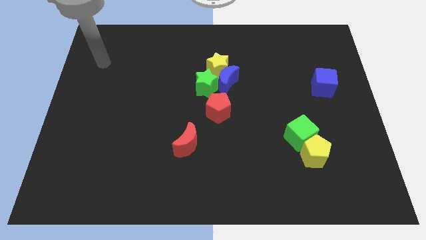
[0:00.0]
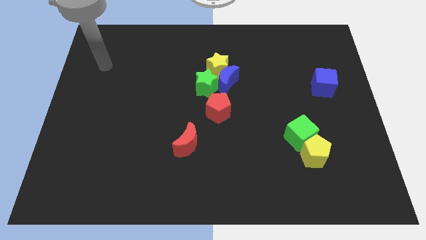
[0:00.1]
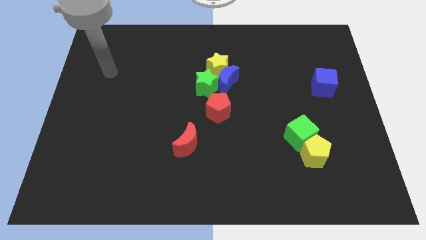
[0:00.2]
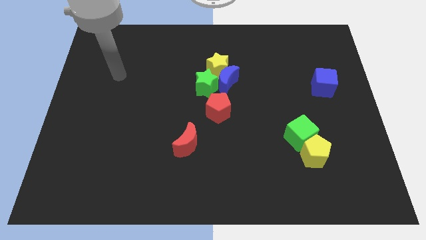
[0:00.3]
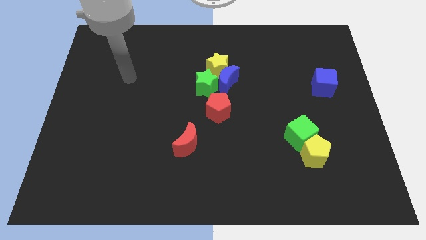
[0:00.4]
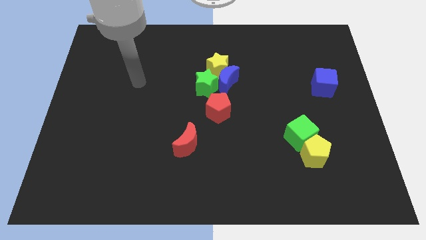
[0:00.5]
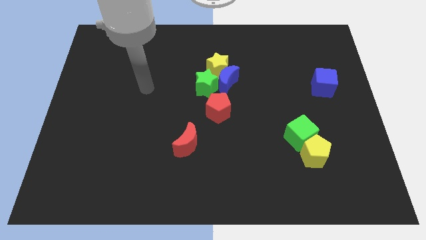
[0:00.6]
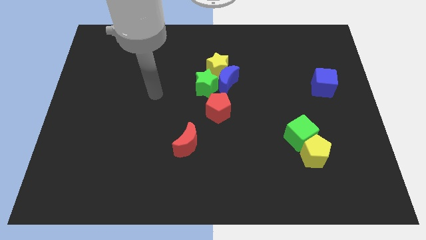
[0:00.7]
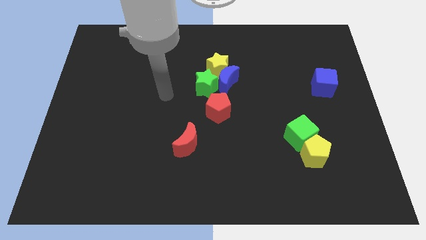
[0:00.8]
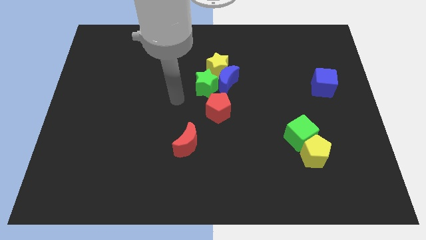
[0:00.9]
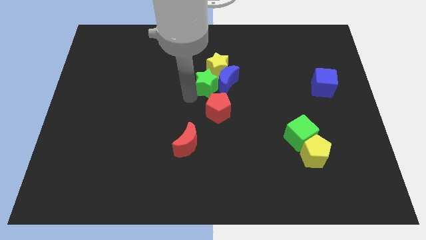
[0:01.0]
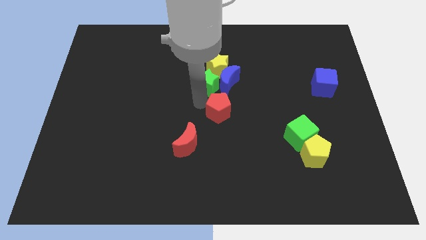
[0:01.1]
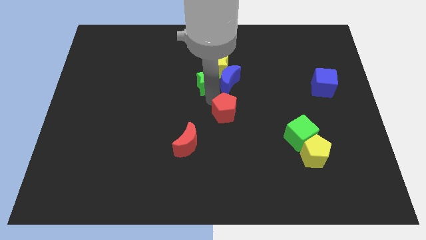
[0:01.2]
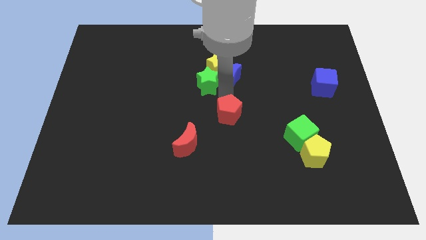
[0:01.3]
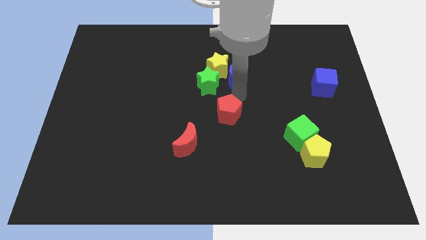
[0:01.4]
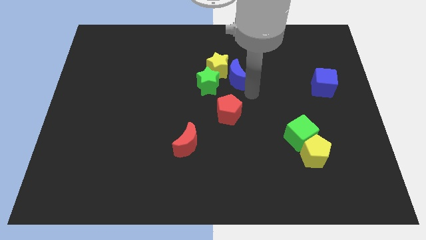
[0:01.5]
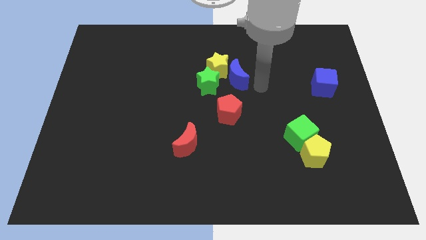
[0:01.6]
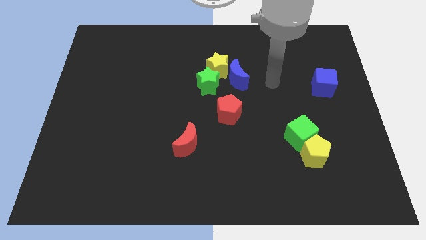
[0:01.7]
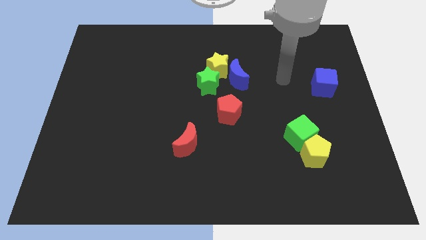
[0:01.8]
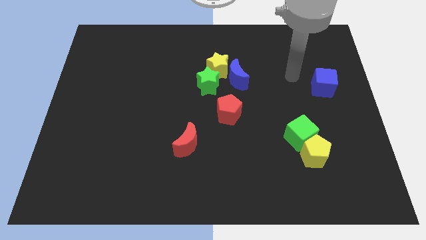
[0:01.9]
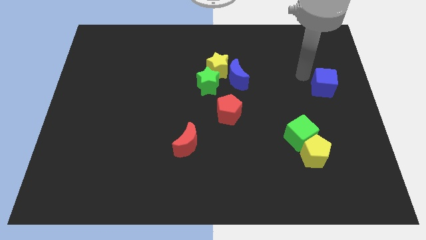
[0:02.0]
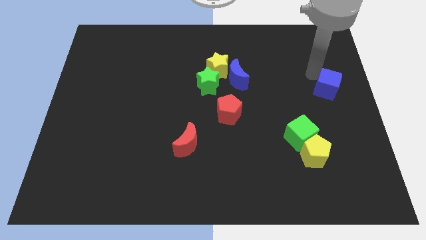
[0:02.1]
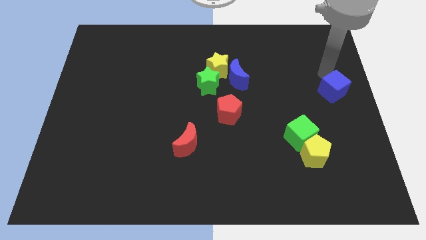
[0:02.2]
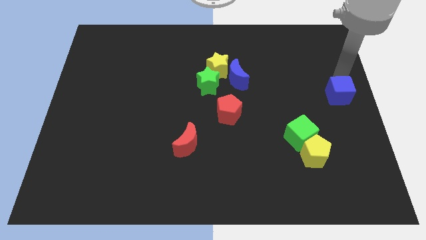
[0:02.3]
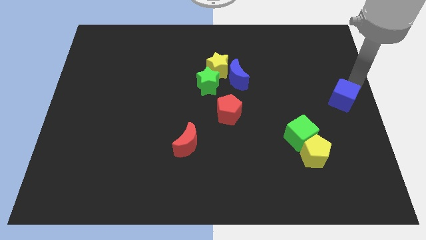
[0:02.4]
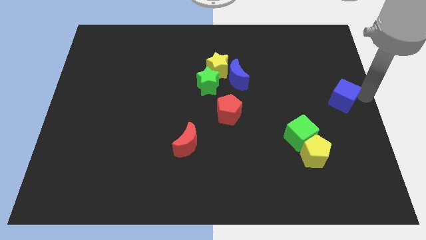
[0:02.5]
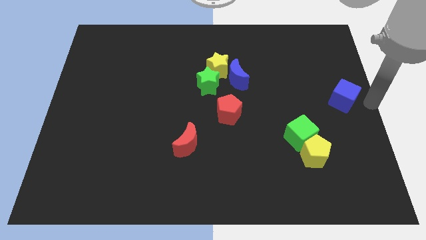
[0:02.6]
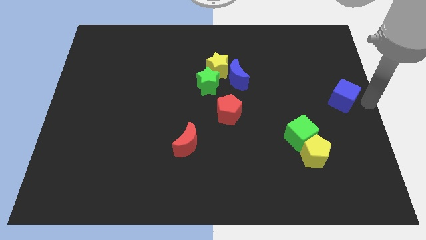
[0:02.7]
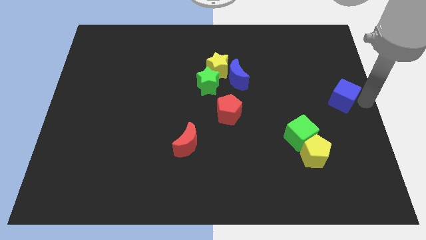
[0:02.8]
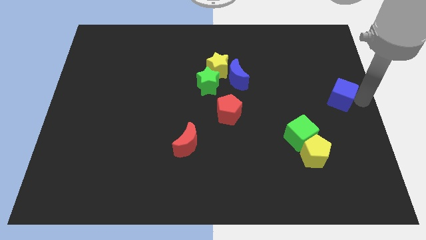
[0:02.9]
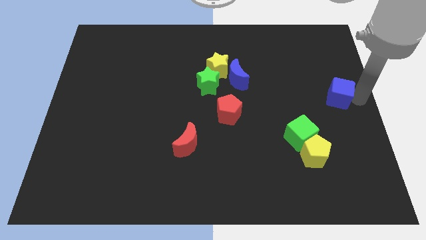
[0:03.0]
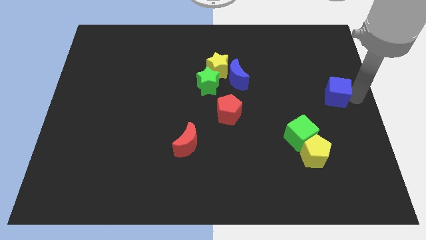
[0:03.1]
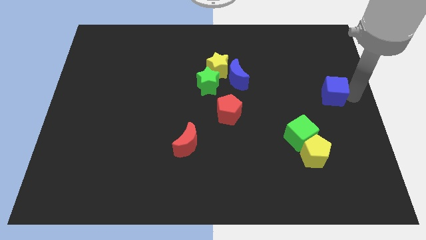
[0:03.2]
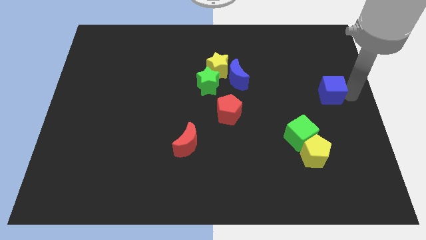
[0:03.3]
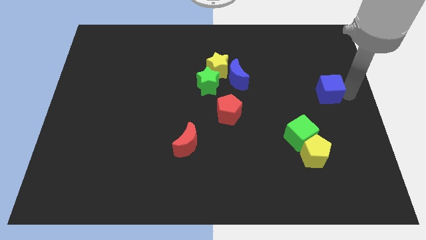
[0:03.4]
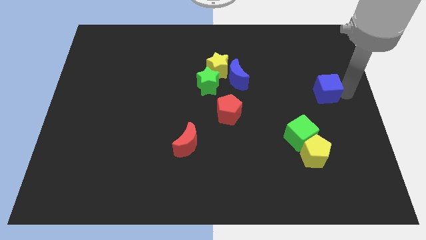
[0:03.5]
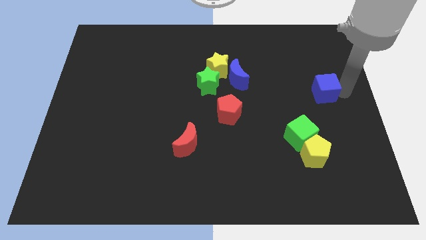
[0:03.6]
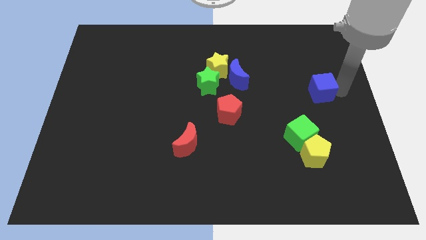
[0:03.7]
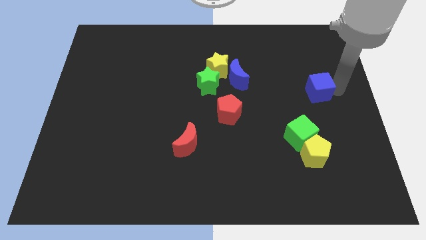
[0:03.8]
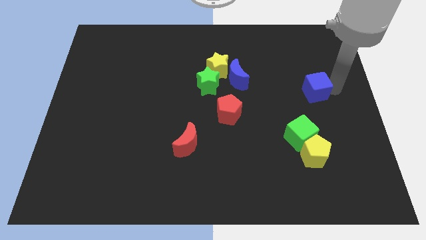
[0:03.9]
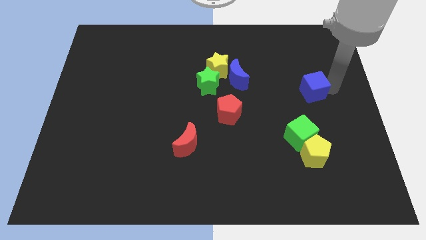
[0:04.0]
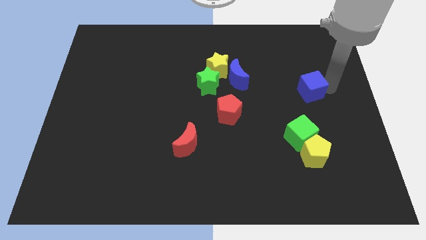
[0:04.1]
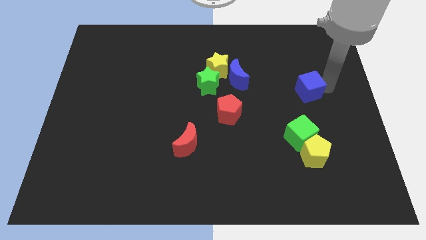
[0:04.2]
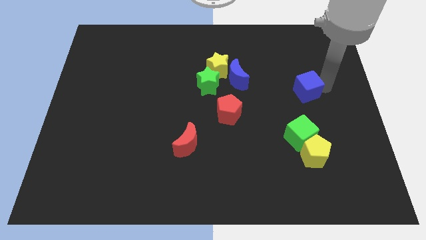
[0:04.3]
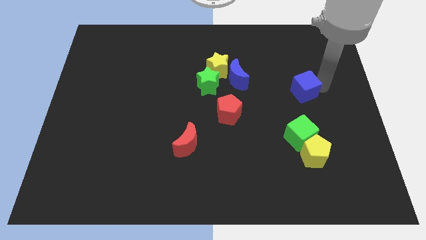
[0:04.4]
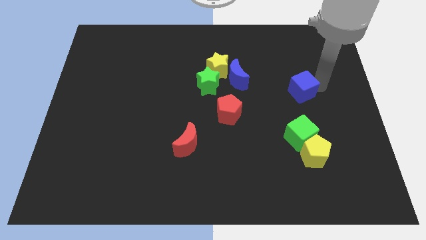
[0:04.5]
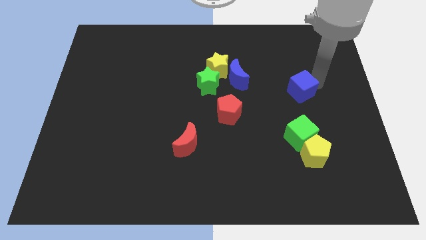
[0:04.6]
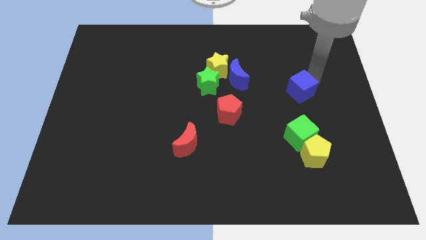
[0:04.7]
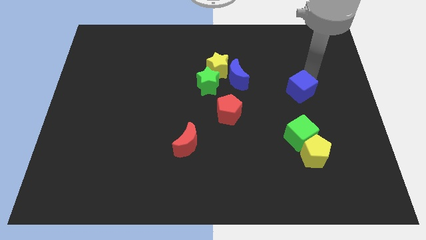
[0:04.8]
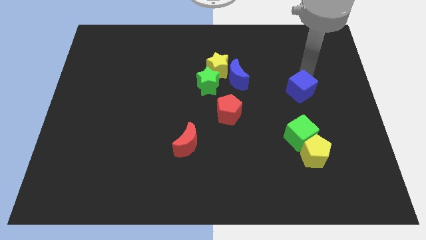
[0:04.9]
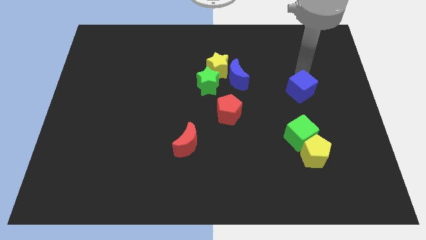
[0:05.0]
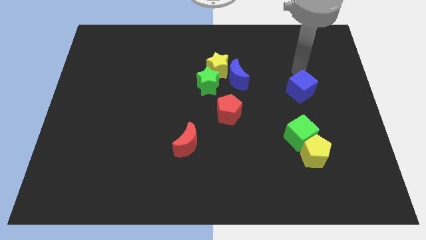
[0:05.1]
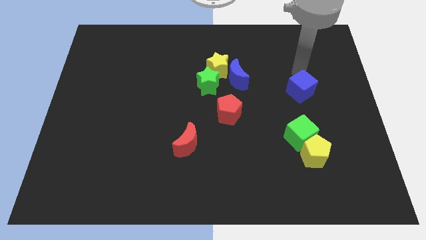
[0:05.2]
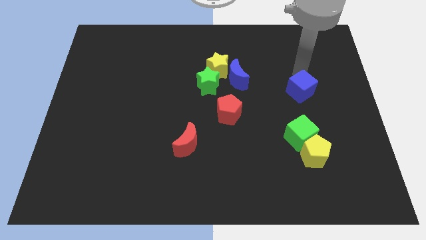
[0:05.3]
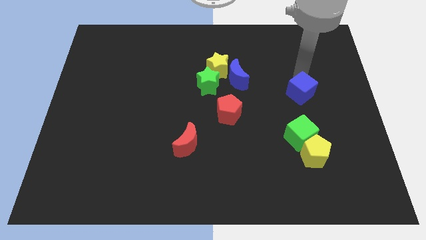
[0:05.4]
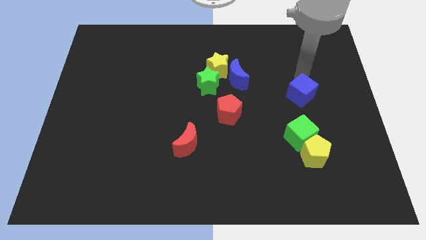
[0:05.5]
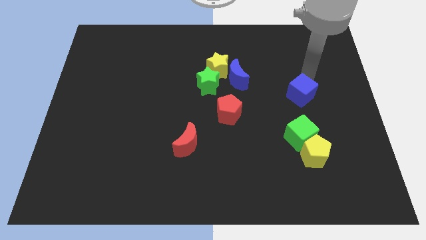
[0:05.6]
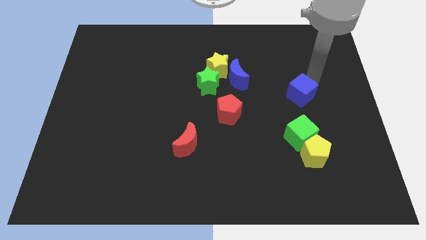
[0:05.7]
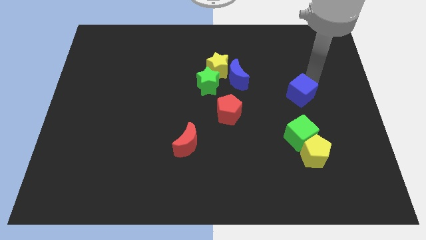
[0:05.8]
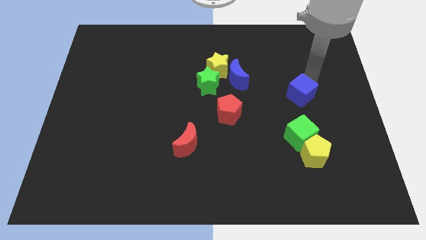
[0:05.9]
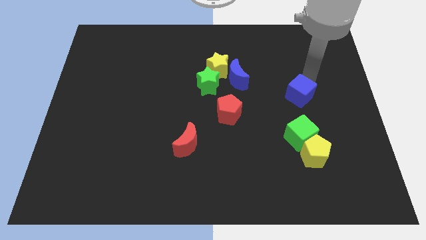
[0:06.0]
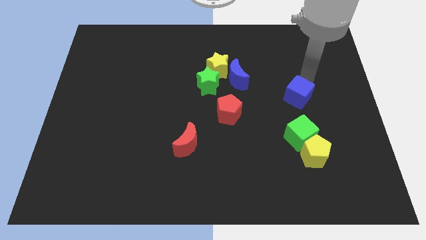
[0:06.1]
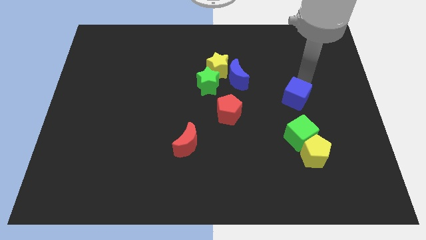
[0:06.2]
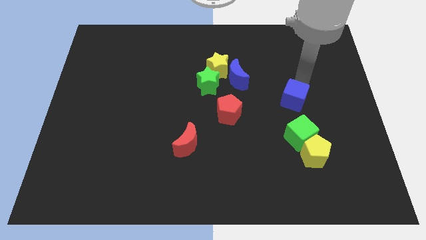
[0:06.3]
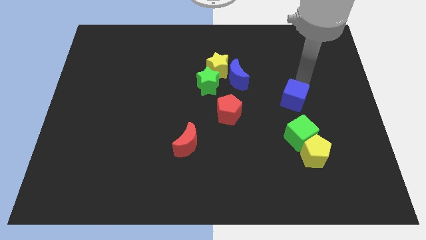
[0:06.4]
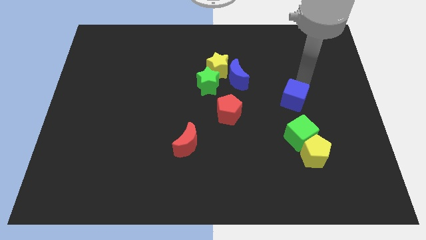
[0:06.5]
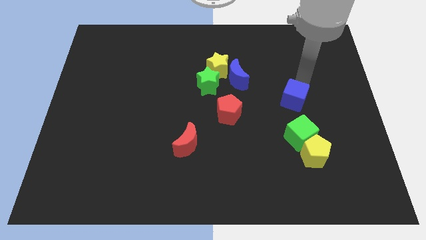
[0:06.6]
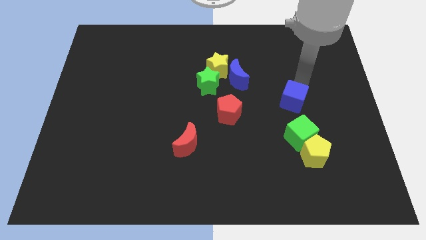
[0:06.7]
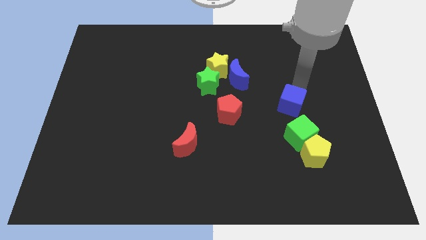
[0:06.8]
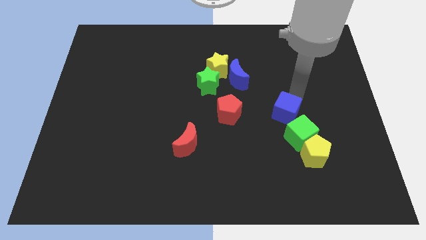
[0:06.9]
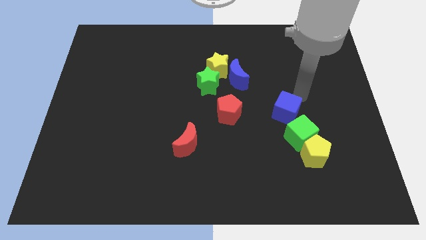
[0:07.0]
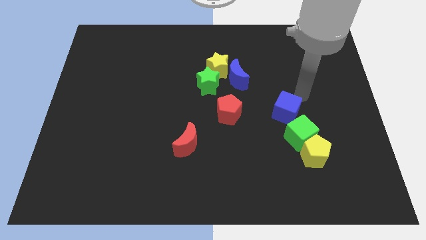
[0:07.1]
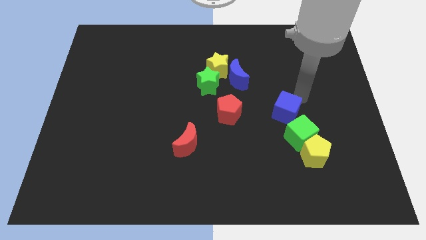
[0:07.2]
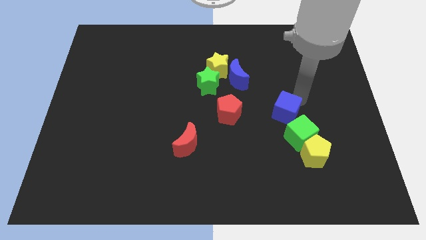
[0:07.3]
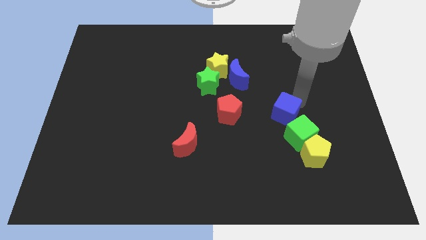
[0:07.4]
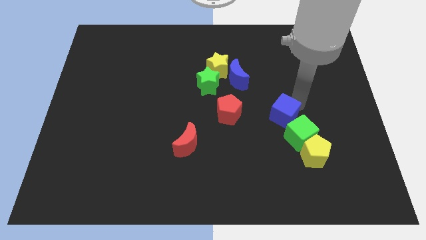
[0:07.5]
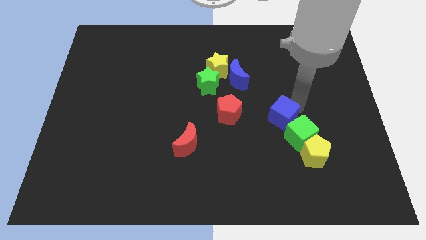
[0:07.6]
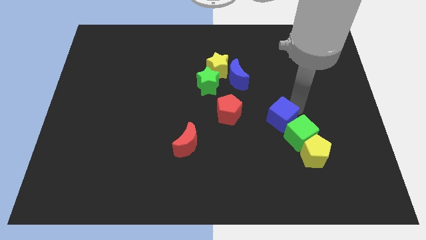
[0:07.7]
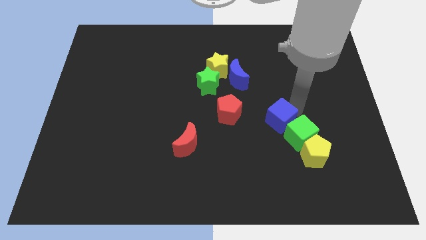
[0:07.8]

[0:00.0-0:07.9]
slide the blue cube to the left of the green cube
